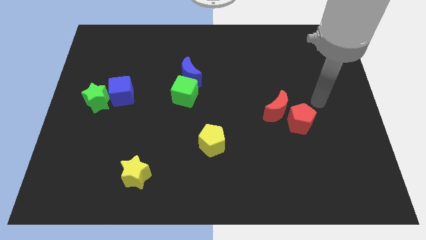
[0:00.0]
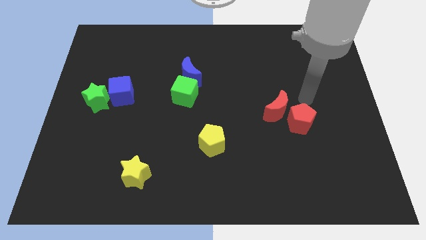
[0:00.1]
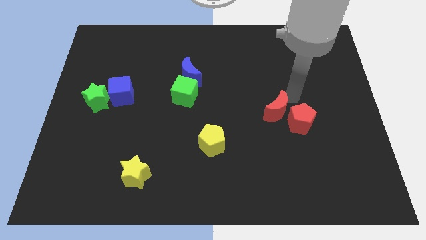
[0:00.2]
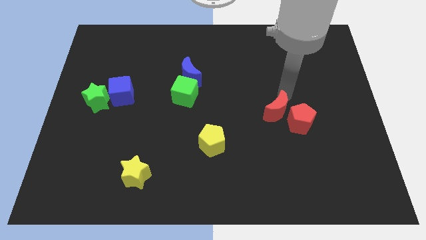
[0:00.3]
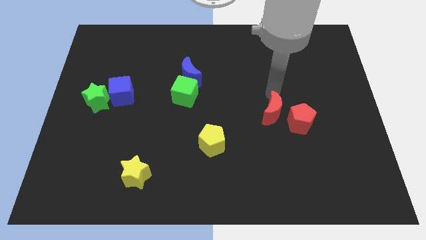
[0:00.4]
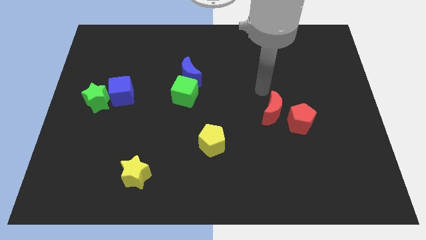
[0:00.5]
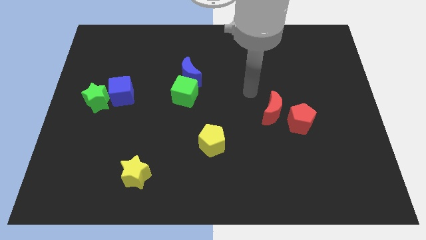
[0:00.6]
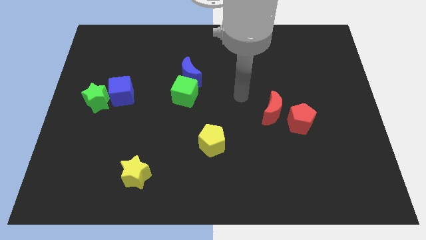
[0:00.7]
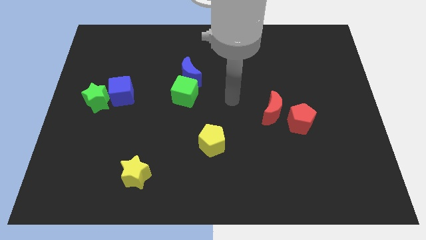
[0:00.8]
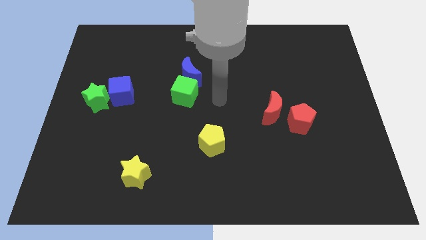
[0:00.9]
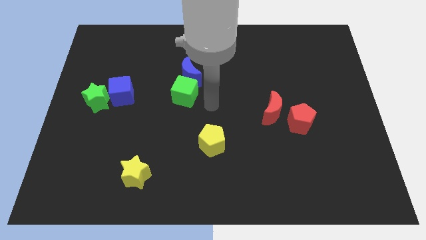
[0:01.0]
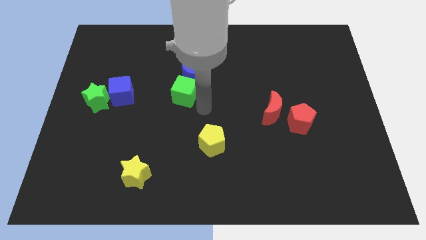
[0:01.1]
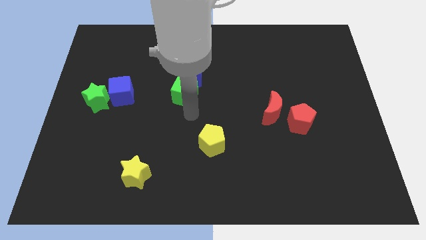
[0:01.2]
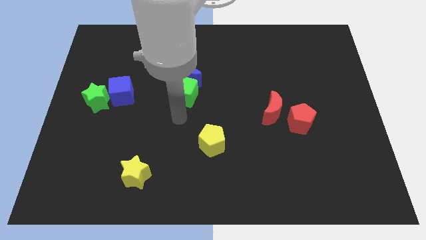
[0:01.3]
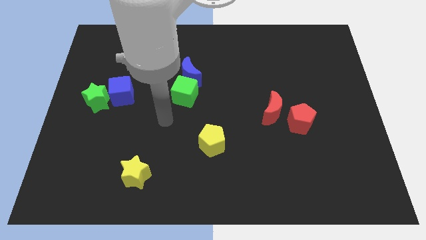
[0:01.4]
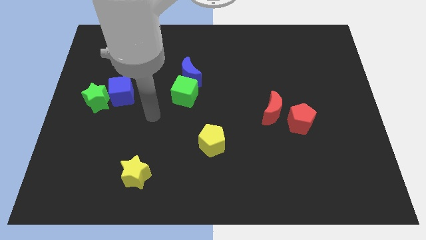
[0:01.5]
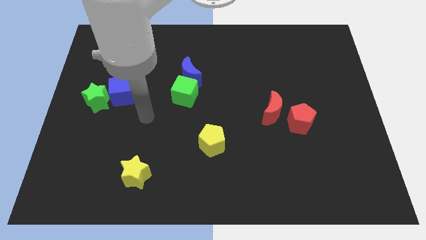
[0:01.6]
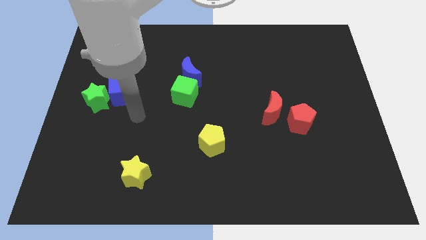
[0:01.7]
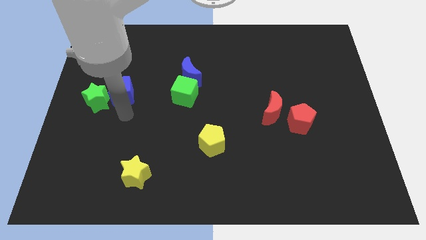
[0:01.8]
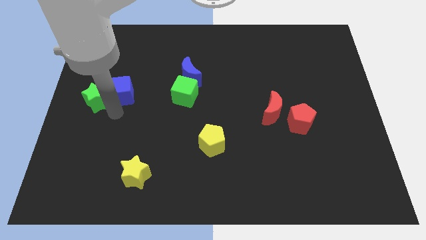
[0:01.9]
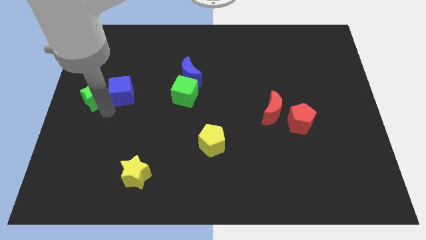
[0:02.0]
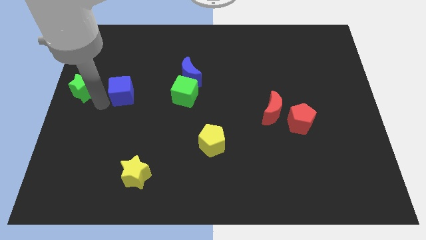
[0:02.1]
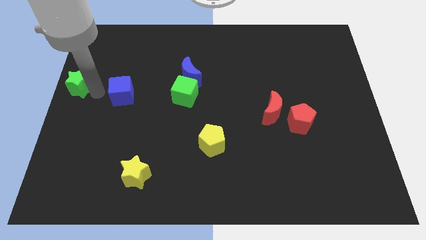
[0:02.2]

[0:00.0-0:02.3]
move the blue cube away from the green star

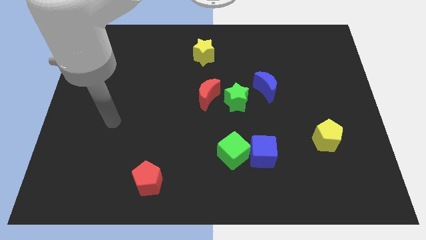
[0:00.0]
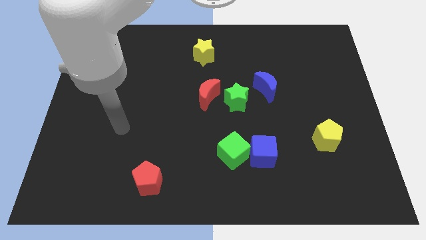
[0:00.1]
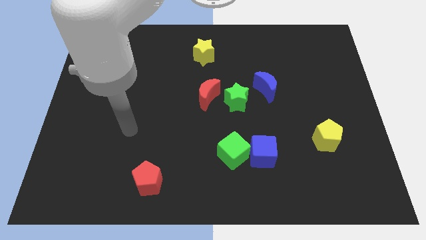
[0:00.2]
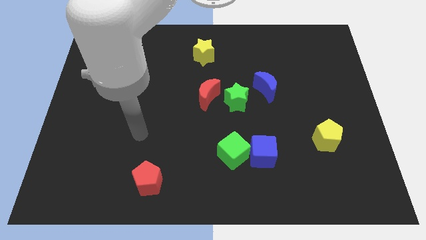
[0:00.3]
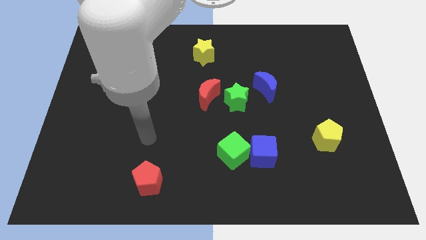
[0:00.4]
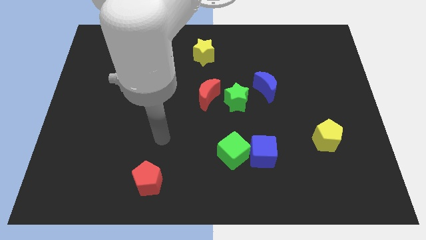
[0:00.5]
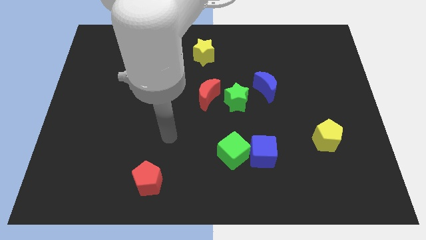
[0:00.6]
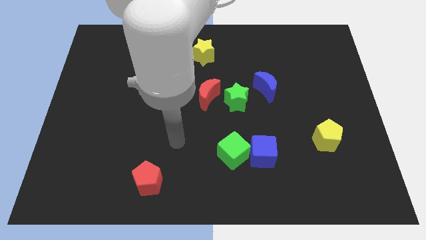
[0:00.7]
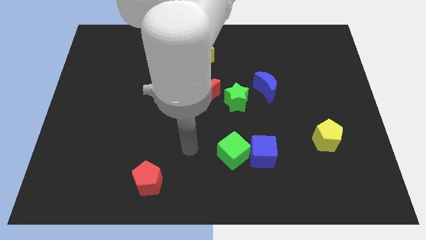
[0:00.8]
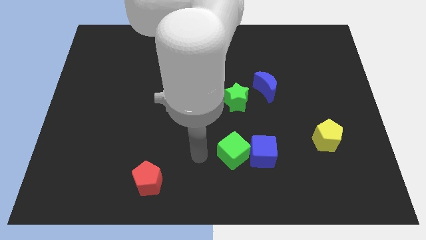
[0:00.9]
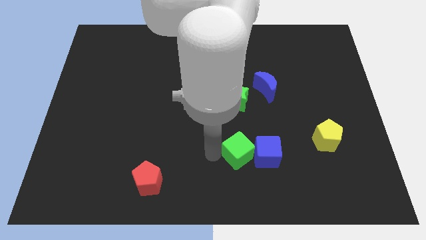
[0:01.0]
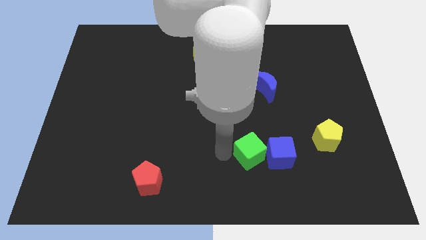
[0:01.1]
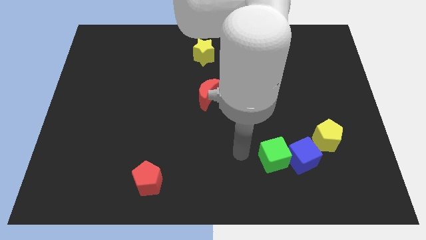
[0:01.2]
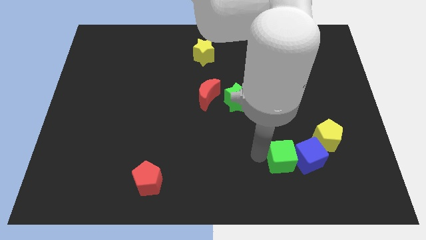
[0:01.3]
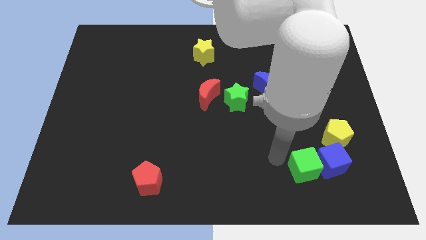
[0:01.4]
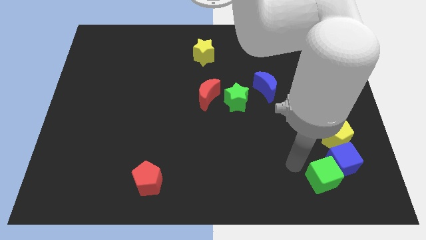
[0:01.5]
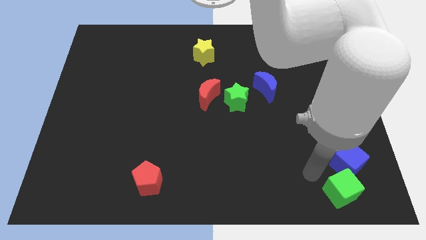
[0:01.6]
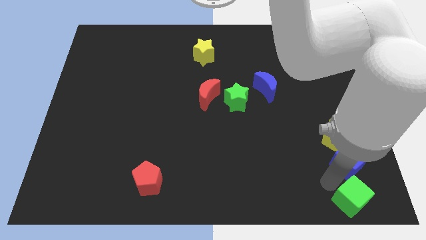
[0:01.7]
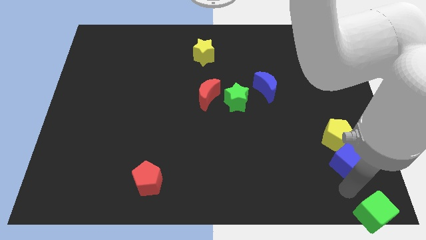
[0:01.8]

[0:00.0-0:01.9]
pull the blue cube apart from the green cube

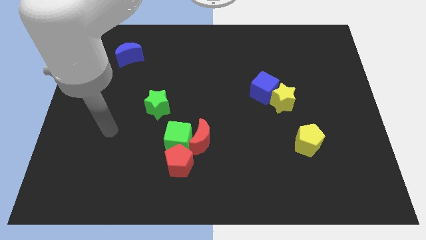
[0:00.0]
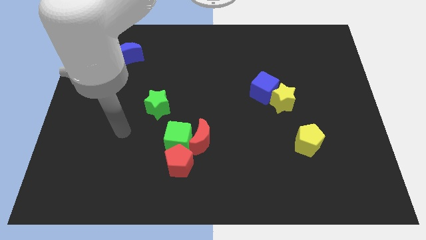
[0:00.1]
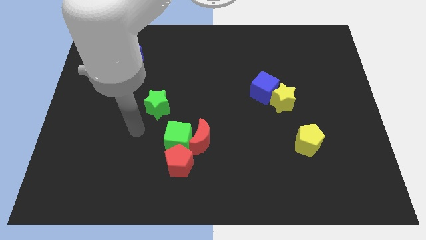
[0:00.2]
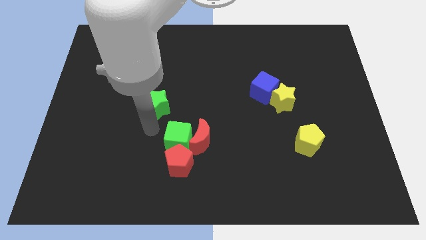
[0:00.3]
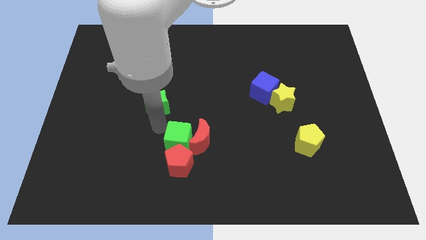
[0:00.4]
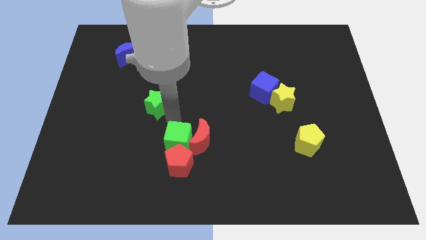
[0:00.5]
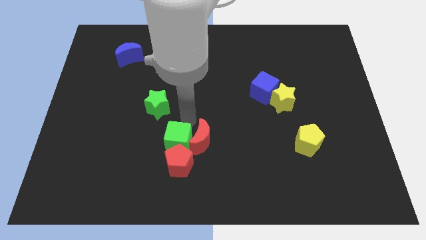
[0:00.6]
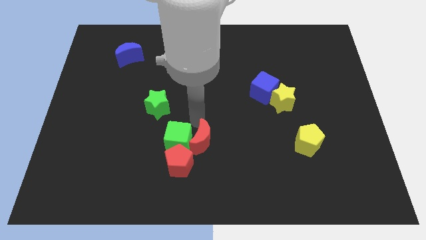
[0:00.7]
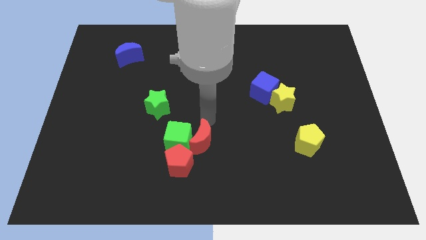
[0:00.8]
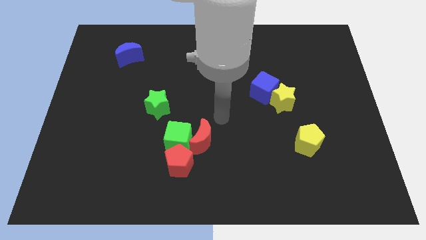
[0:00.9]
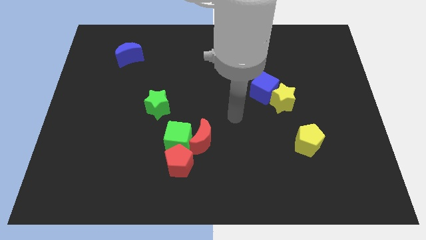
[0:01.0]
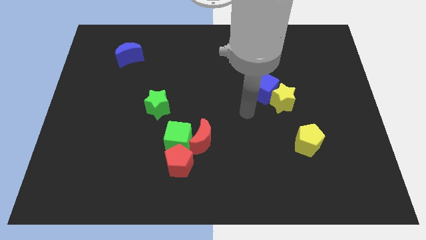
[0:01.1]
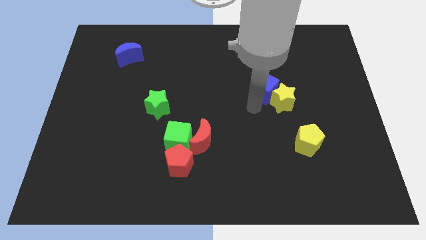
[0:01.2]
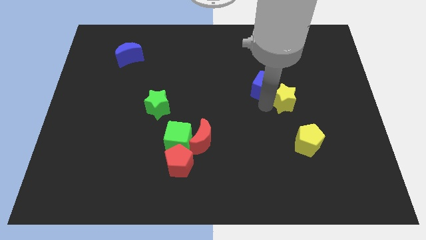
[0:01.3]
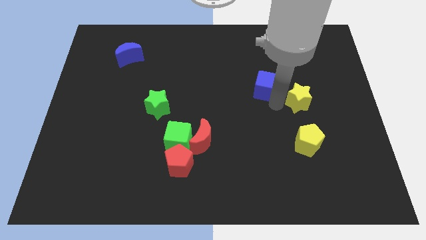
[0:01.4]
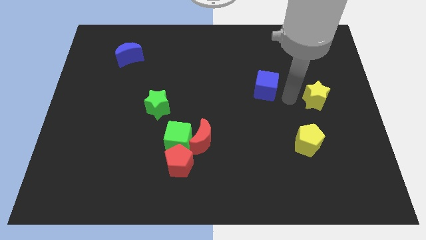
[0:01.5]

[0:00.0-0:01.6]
separate the blue cube from the yellow star

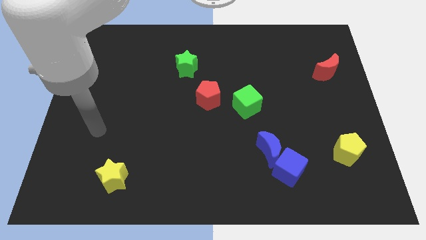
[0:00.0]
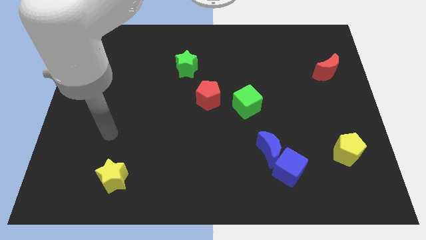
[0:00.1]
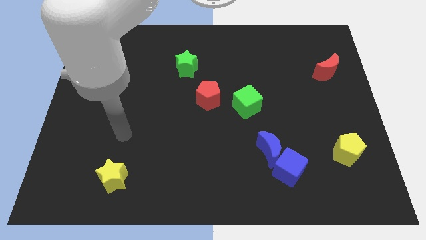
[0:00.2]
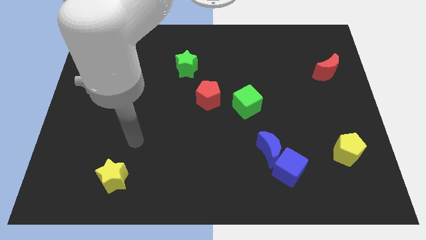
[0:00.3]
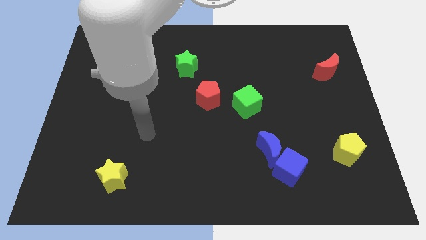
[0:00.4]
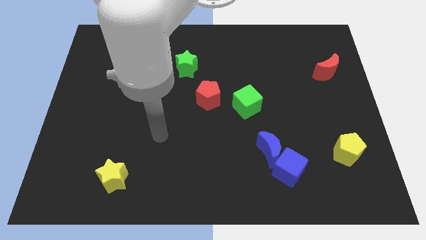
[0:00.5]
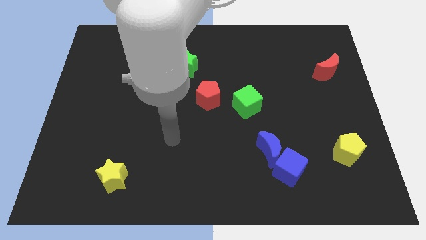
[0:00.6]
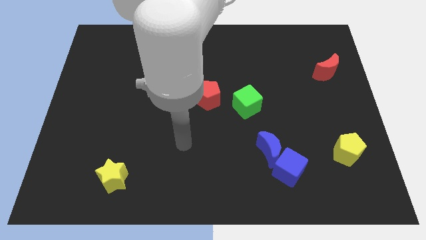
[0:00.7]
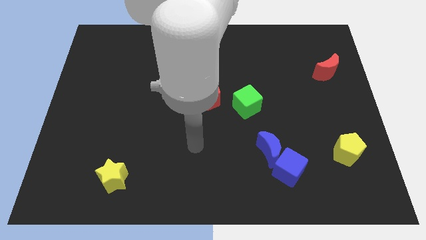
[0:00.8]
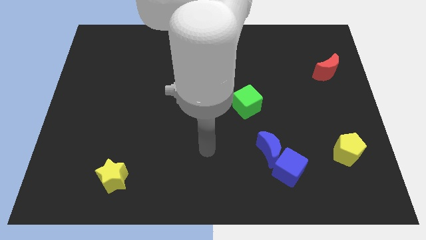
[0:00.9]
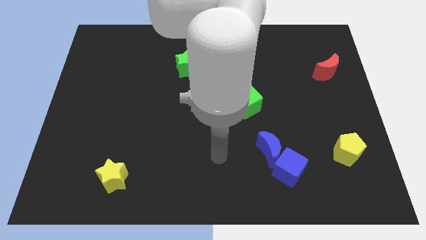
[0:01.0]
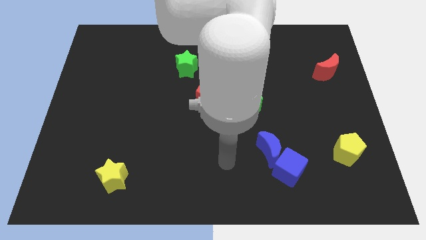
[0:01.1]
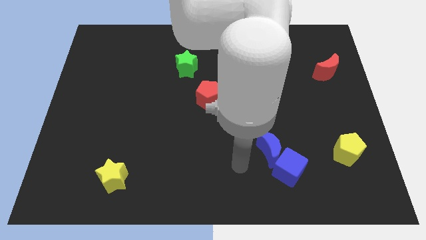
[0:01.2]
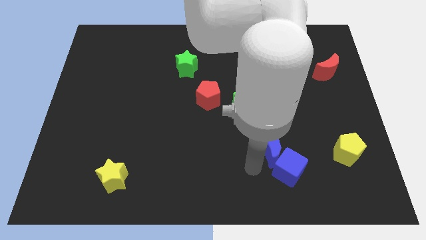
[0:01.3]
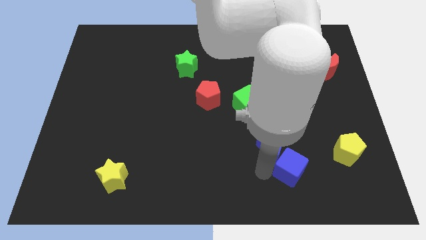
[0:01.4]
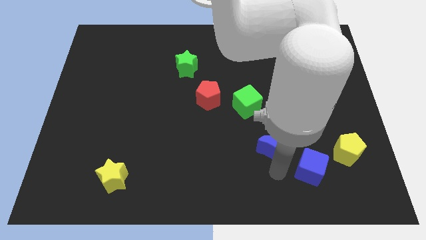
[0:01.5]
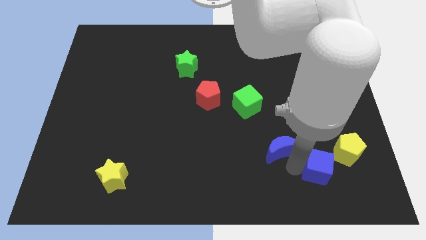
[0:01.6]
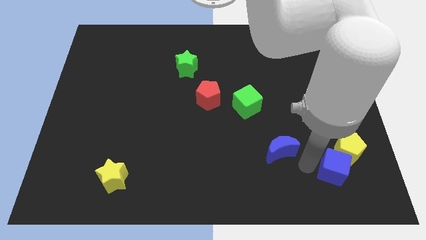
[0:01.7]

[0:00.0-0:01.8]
move the blue moon away from the blue cube

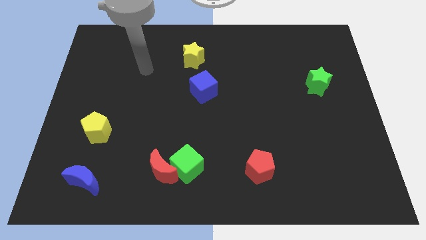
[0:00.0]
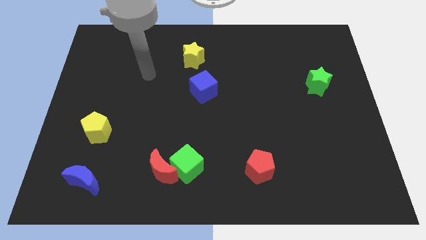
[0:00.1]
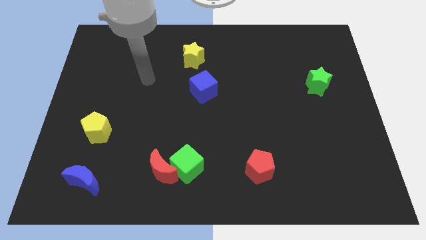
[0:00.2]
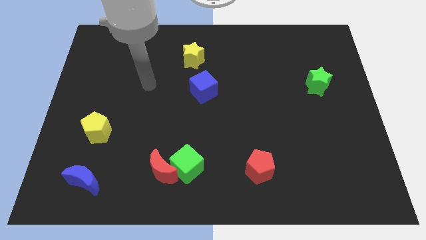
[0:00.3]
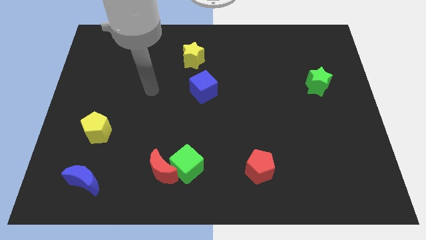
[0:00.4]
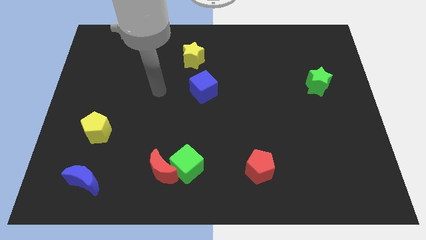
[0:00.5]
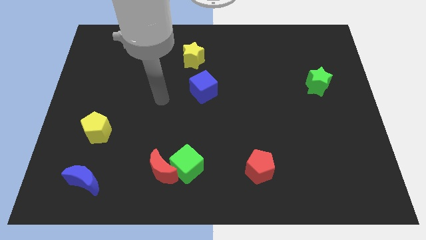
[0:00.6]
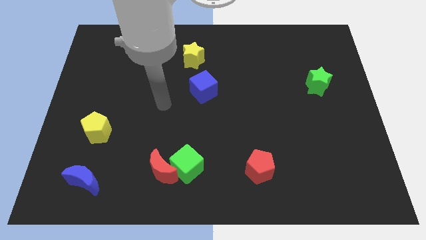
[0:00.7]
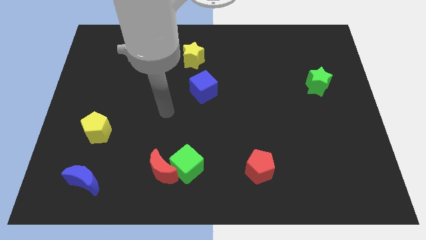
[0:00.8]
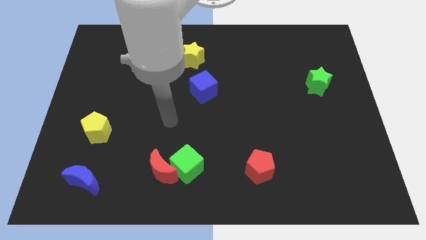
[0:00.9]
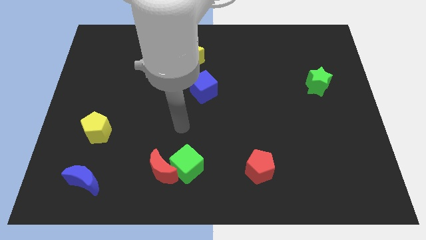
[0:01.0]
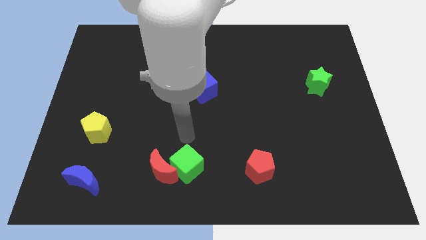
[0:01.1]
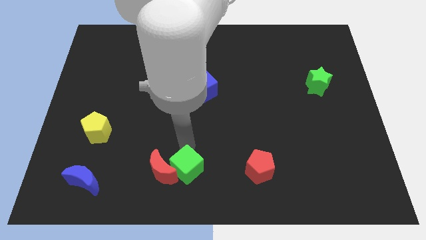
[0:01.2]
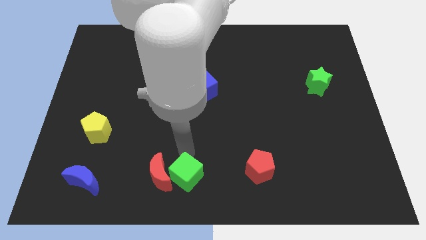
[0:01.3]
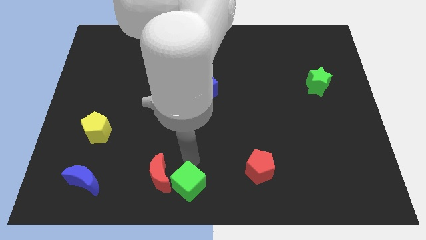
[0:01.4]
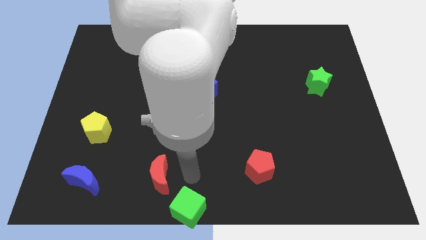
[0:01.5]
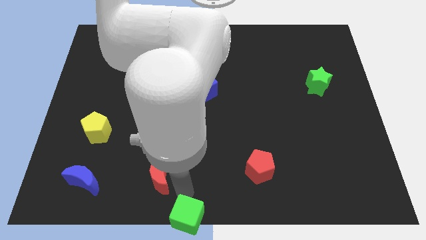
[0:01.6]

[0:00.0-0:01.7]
move the red moon away from the green cube
